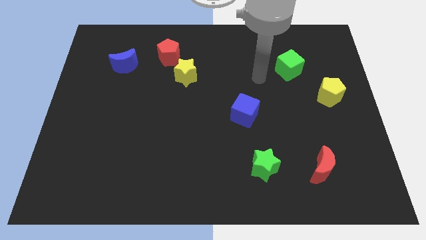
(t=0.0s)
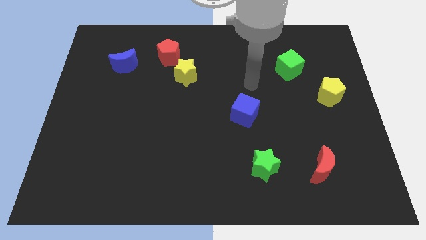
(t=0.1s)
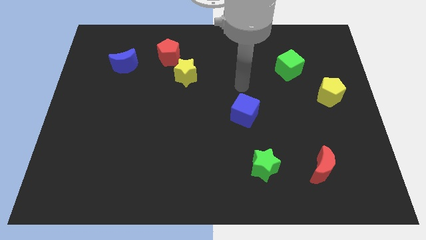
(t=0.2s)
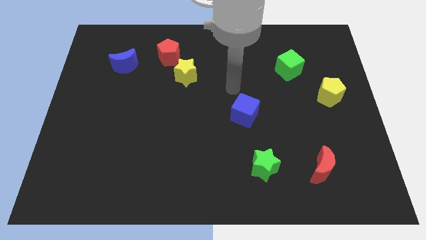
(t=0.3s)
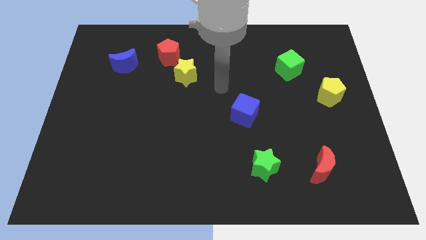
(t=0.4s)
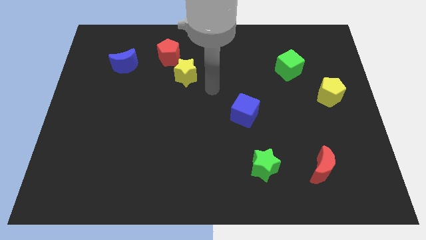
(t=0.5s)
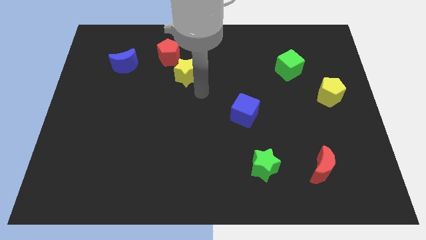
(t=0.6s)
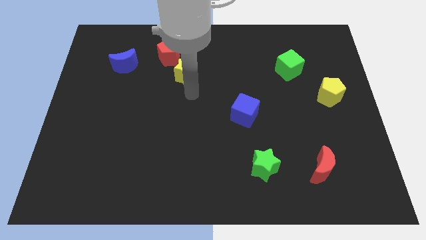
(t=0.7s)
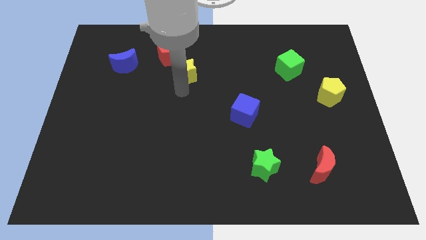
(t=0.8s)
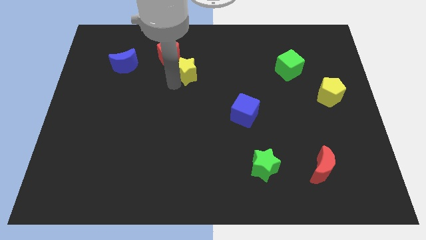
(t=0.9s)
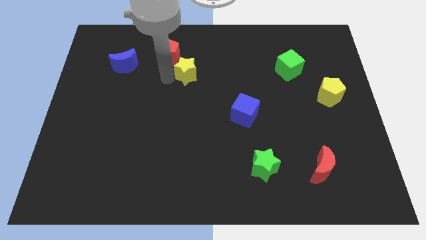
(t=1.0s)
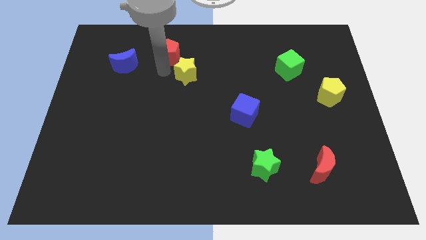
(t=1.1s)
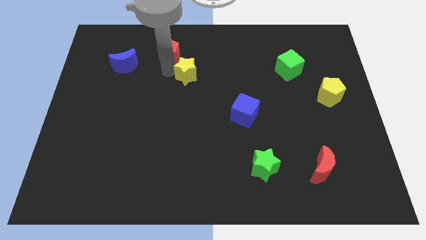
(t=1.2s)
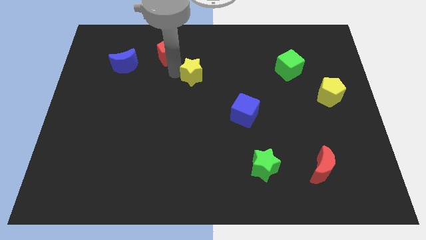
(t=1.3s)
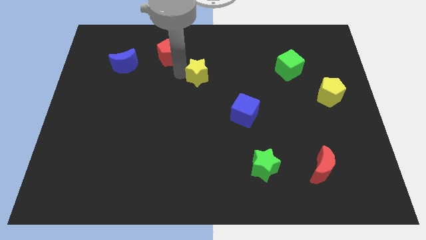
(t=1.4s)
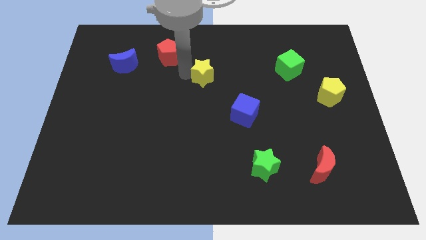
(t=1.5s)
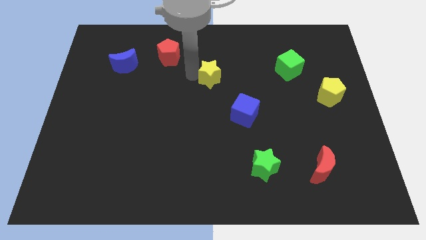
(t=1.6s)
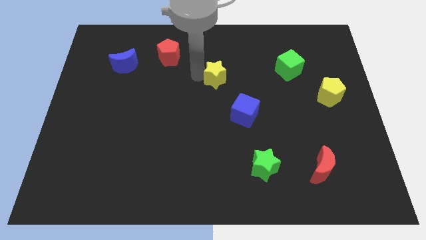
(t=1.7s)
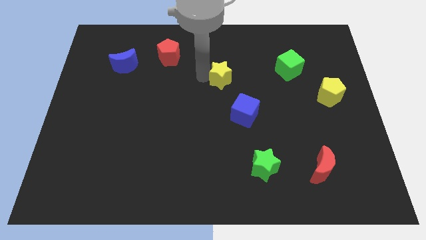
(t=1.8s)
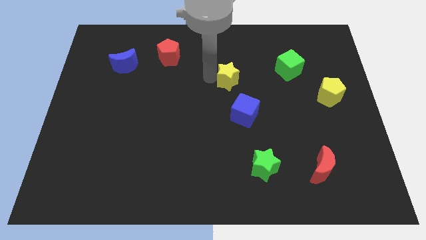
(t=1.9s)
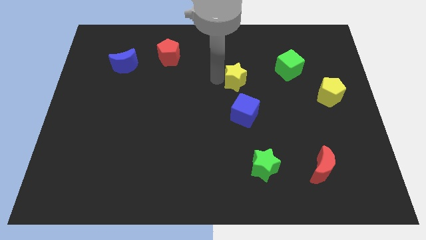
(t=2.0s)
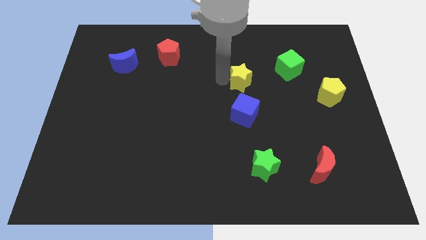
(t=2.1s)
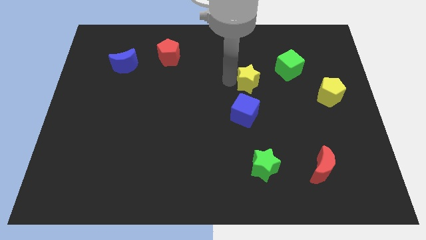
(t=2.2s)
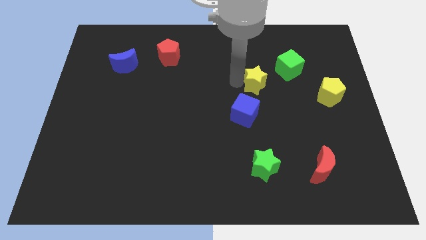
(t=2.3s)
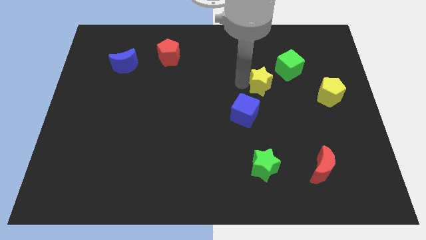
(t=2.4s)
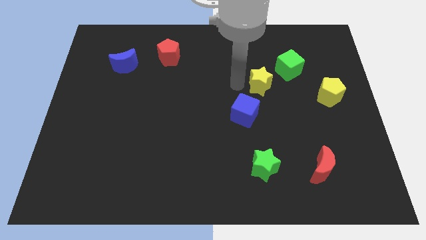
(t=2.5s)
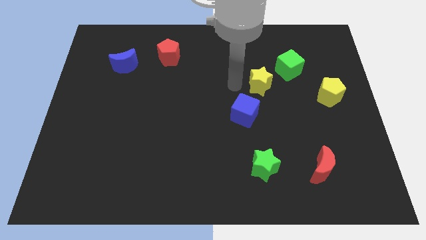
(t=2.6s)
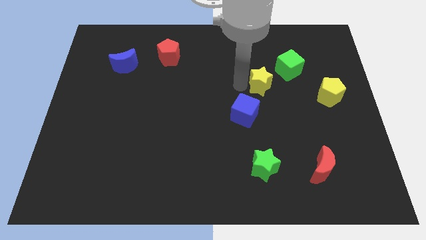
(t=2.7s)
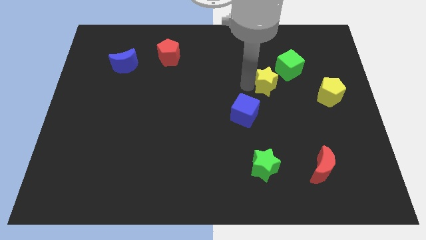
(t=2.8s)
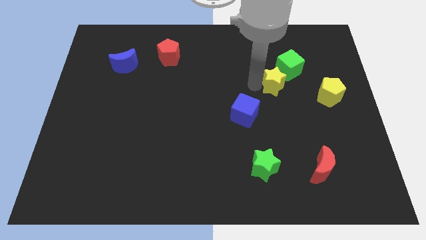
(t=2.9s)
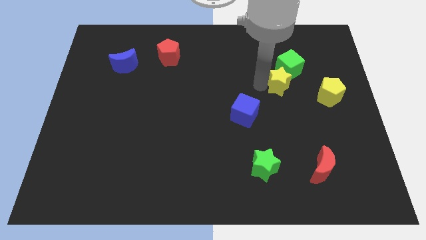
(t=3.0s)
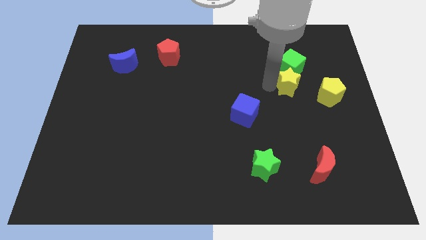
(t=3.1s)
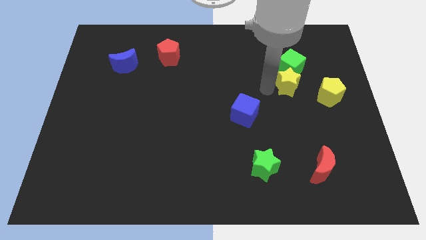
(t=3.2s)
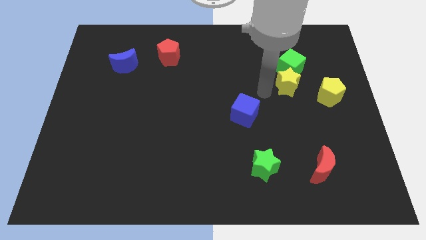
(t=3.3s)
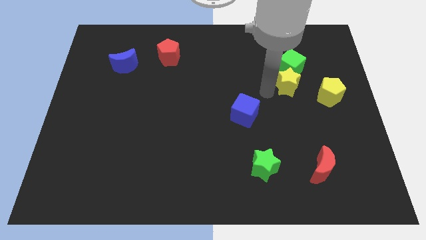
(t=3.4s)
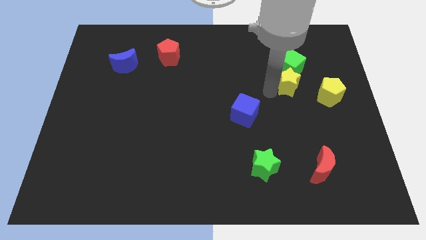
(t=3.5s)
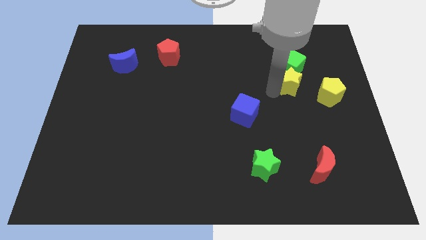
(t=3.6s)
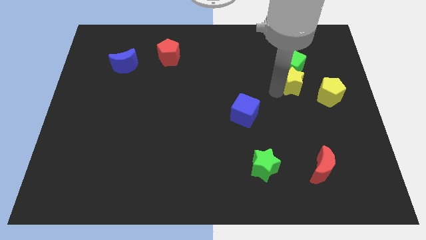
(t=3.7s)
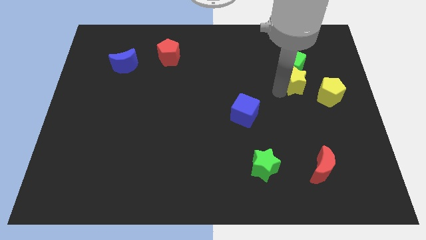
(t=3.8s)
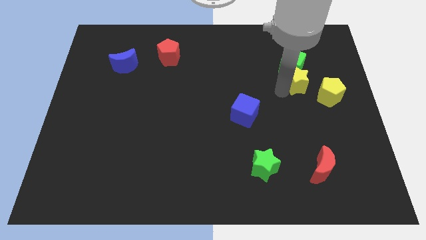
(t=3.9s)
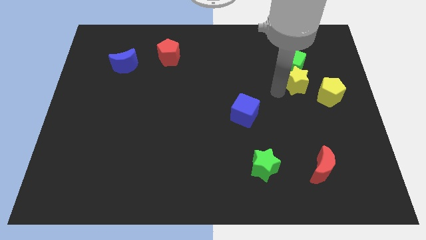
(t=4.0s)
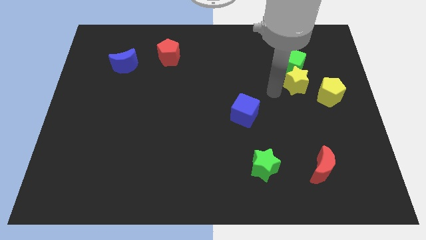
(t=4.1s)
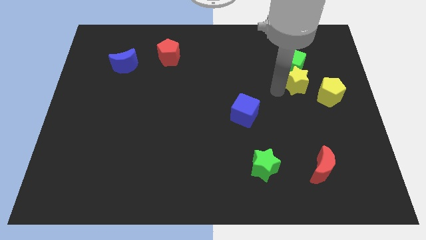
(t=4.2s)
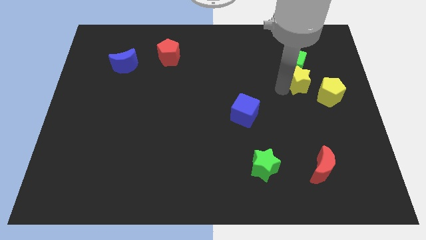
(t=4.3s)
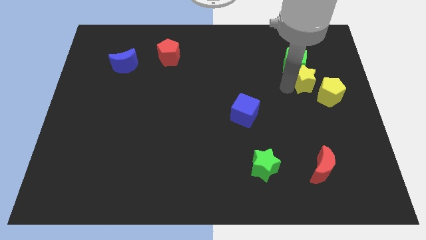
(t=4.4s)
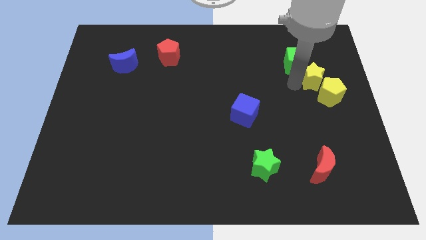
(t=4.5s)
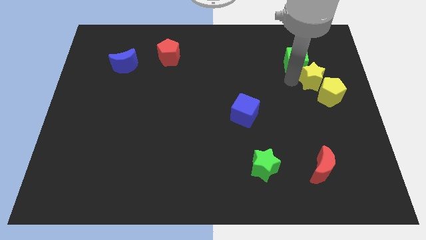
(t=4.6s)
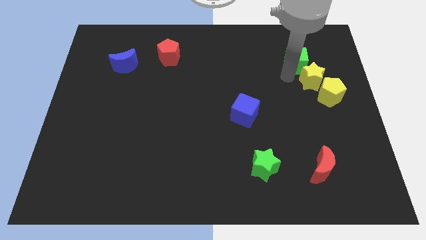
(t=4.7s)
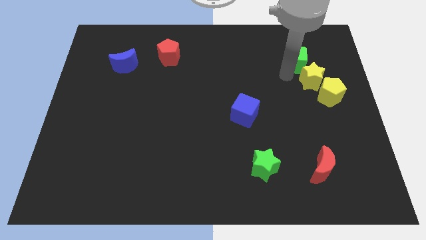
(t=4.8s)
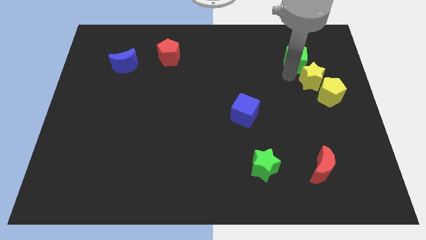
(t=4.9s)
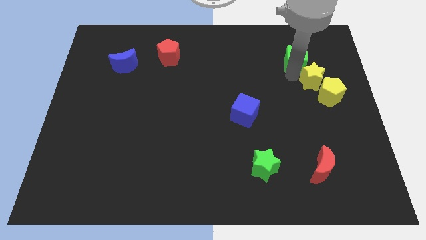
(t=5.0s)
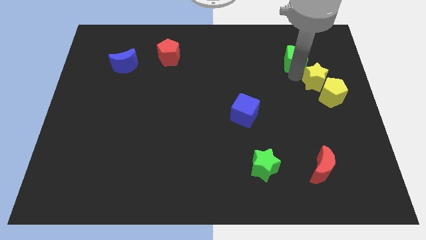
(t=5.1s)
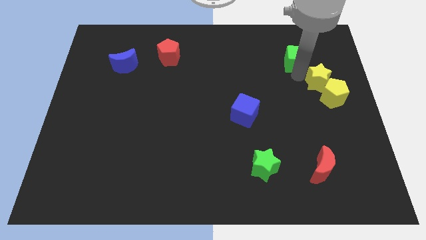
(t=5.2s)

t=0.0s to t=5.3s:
put the yellow star to the right side

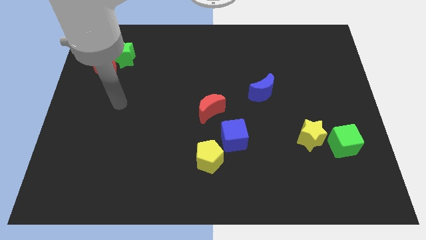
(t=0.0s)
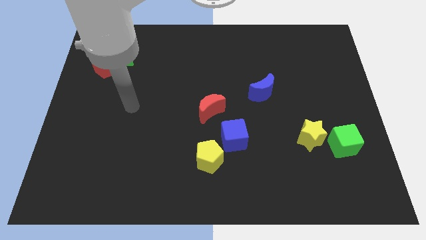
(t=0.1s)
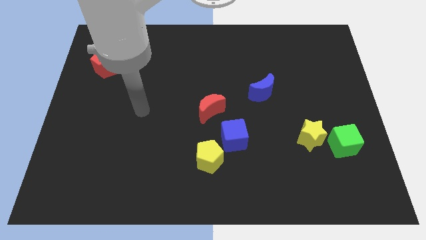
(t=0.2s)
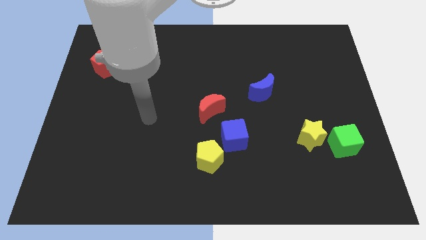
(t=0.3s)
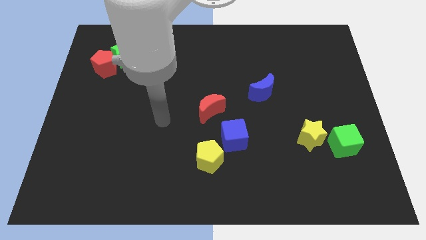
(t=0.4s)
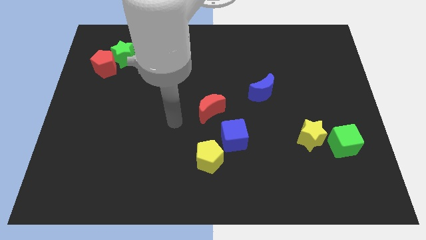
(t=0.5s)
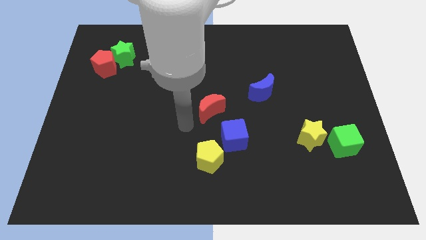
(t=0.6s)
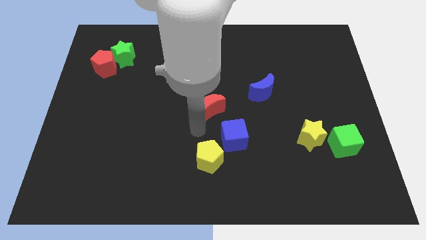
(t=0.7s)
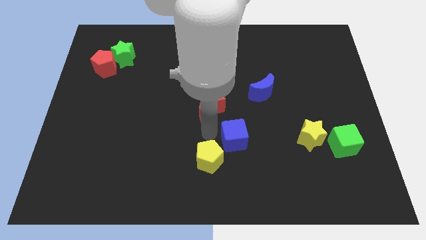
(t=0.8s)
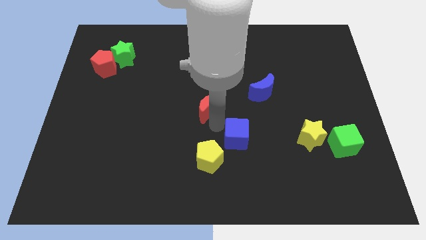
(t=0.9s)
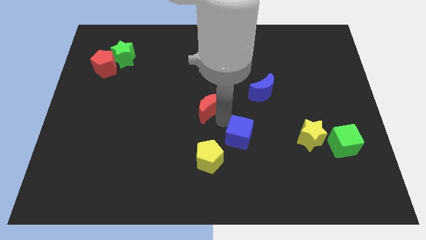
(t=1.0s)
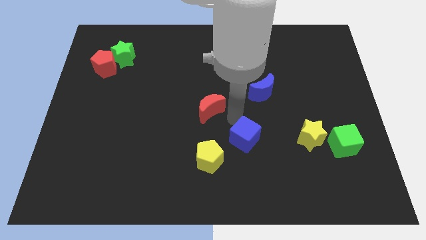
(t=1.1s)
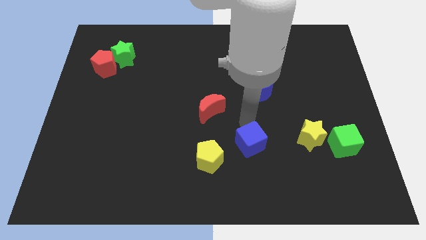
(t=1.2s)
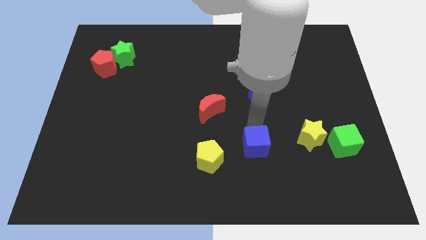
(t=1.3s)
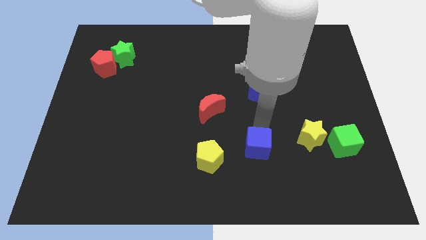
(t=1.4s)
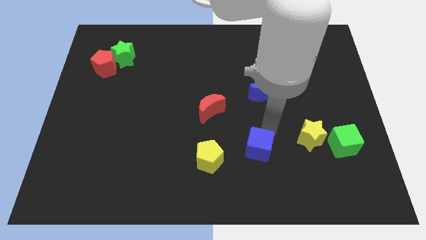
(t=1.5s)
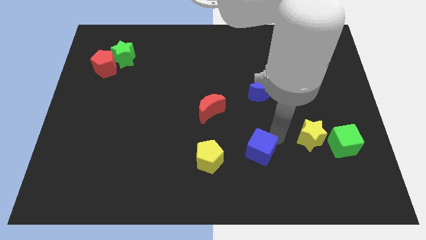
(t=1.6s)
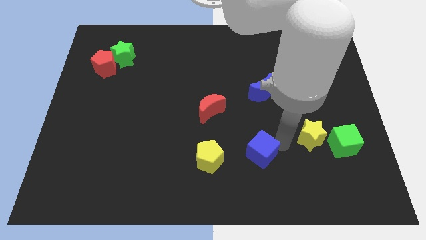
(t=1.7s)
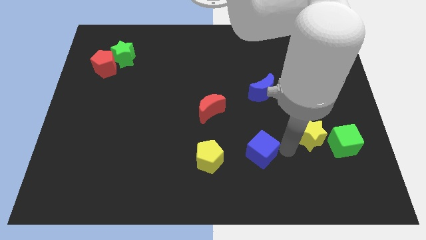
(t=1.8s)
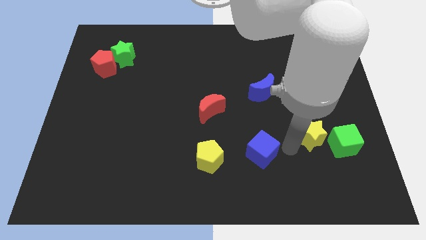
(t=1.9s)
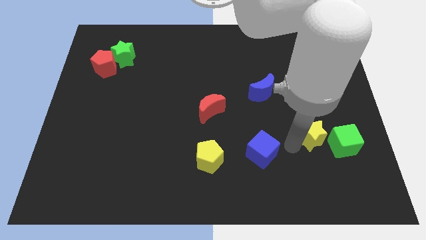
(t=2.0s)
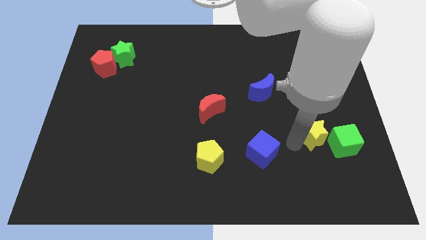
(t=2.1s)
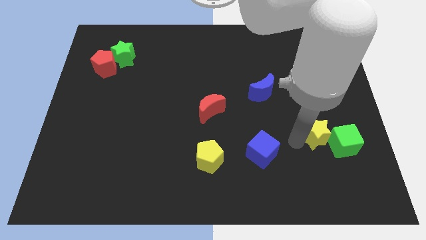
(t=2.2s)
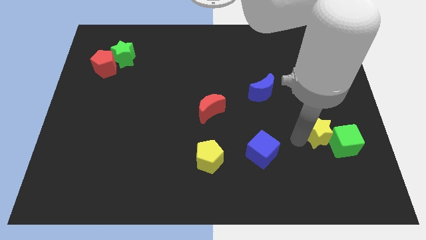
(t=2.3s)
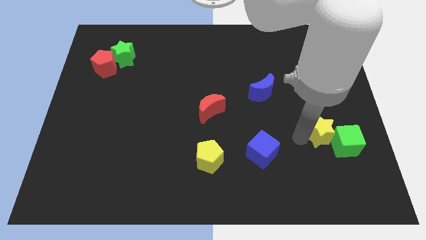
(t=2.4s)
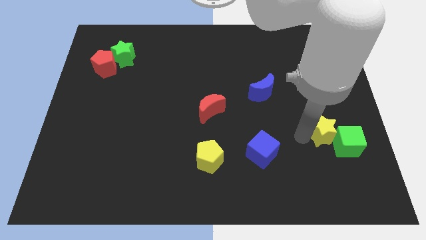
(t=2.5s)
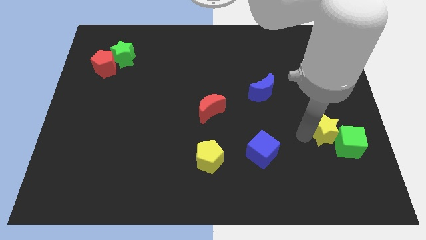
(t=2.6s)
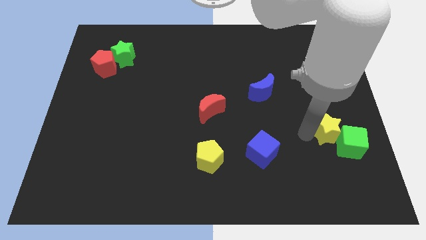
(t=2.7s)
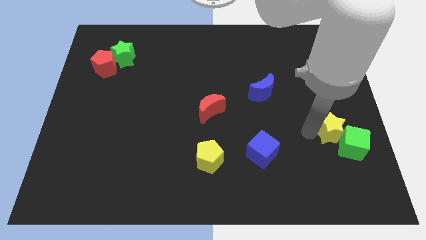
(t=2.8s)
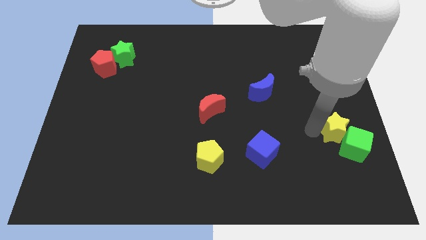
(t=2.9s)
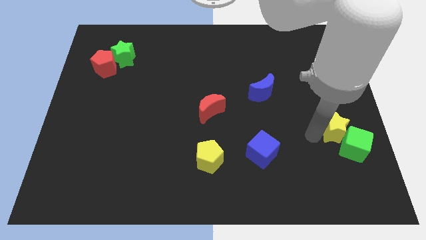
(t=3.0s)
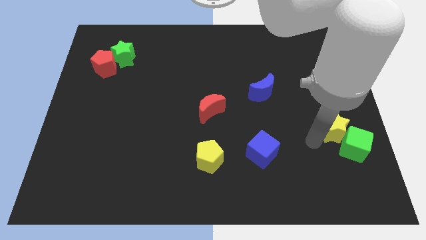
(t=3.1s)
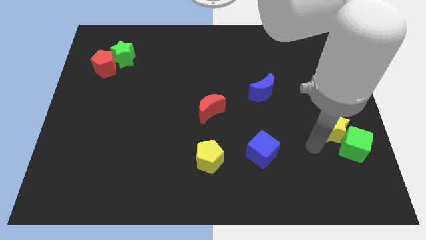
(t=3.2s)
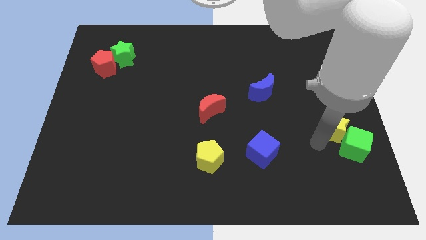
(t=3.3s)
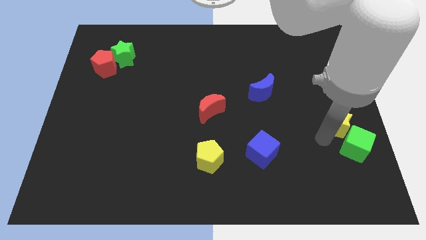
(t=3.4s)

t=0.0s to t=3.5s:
move the yellow star to the right side of the board
